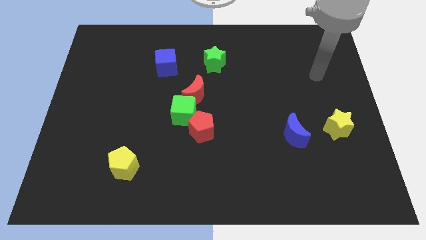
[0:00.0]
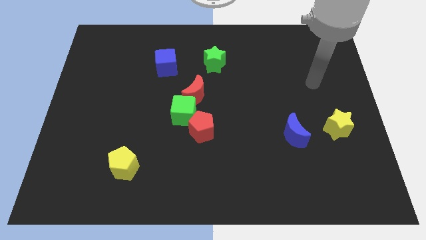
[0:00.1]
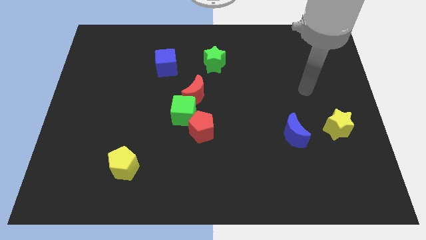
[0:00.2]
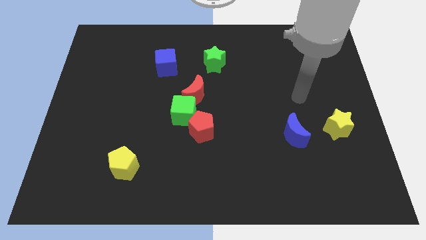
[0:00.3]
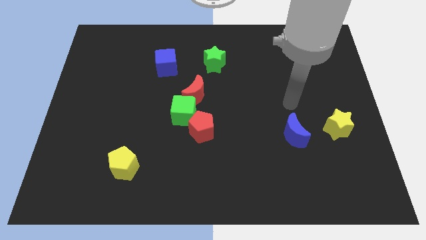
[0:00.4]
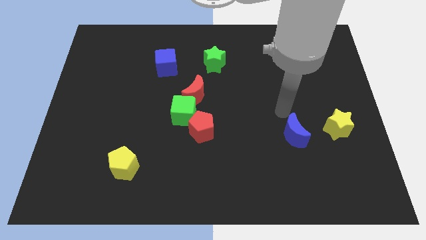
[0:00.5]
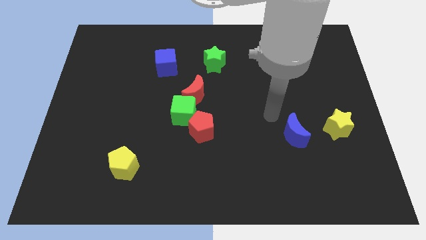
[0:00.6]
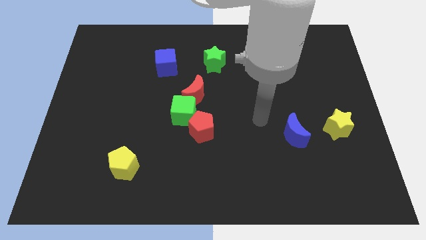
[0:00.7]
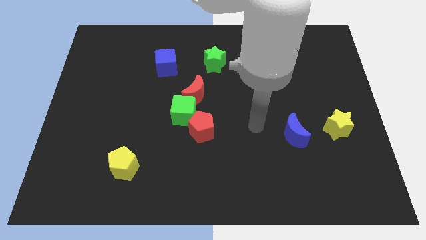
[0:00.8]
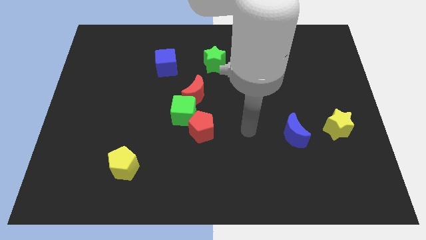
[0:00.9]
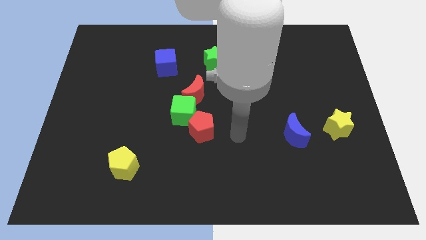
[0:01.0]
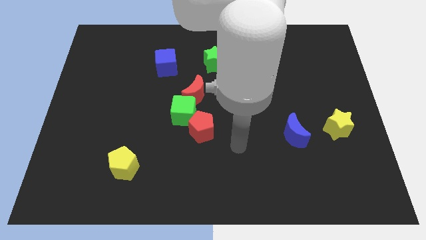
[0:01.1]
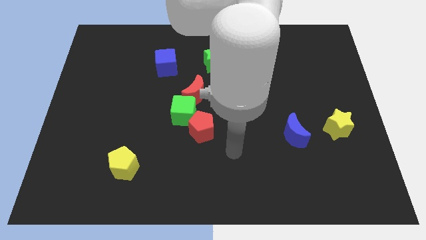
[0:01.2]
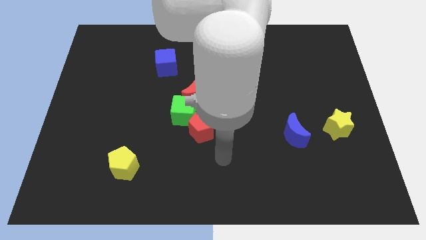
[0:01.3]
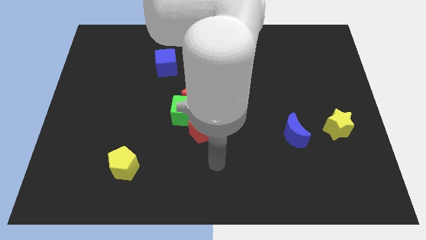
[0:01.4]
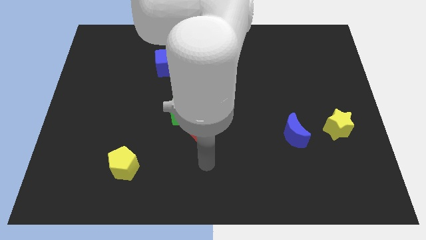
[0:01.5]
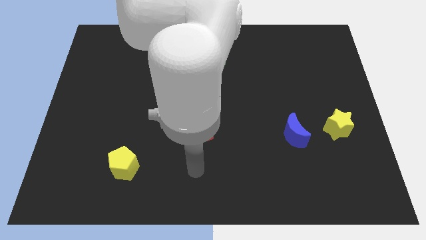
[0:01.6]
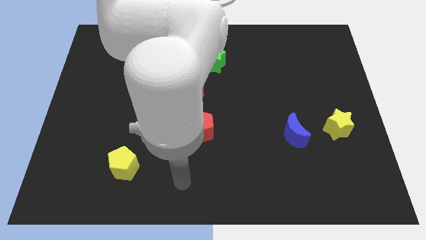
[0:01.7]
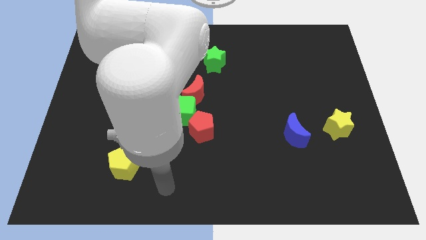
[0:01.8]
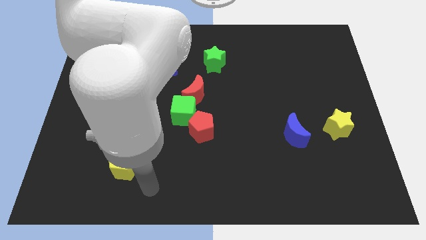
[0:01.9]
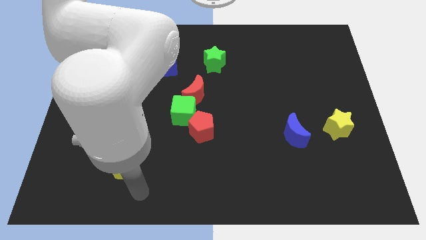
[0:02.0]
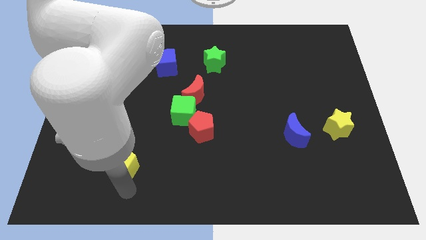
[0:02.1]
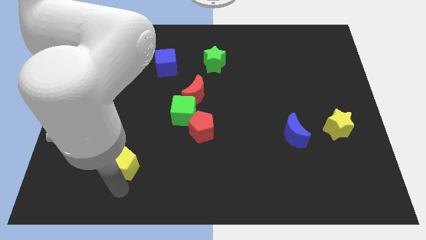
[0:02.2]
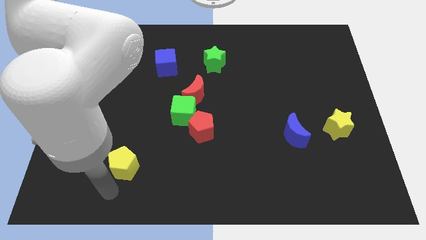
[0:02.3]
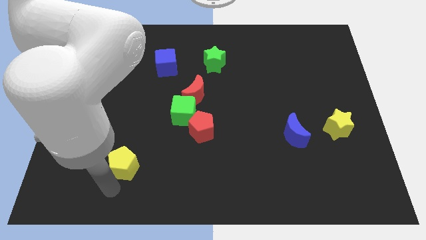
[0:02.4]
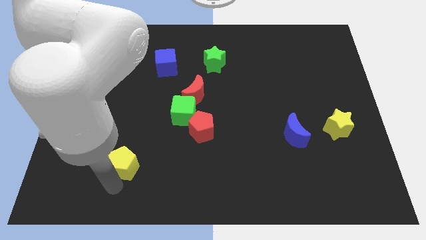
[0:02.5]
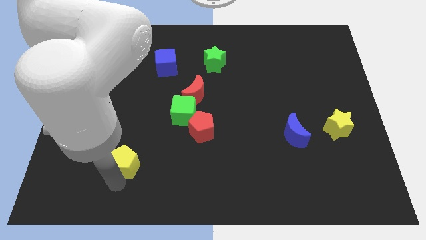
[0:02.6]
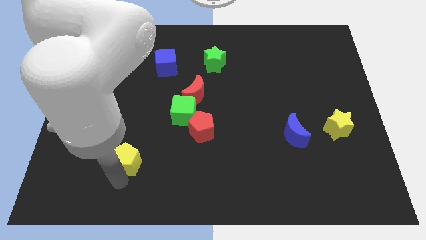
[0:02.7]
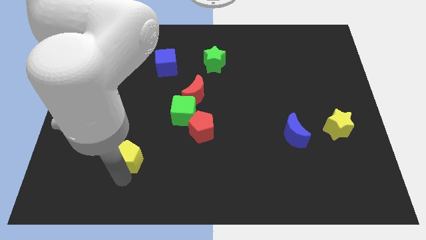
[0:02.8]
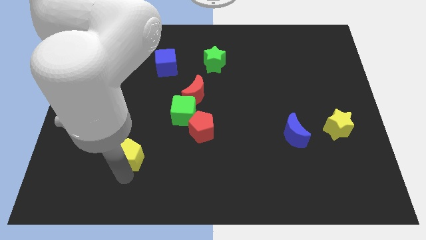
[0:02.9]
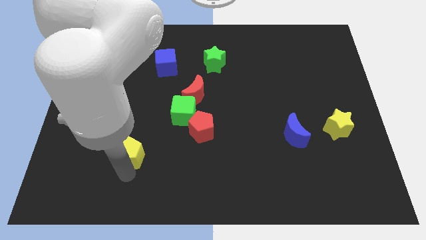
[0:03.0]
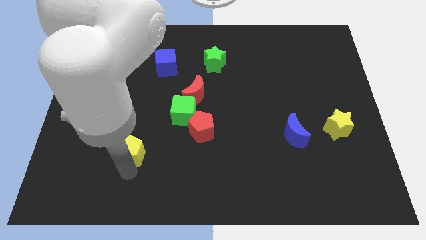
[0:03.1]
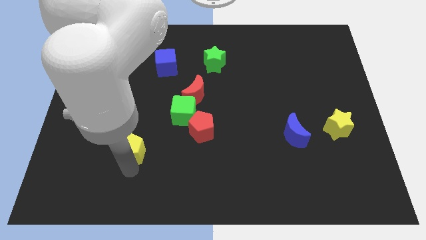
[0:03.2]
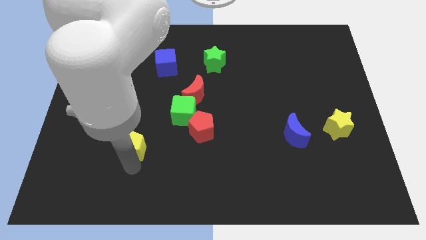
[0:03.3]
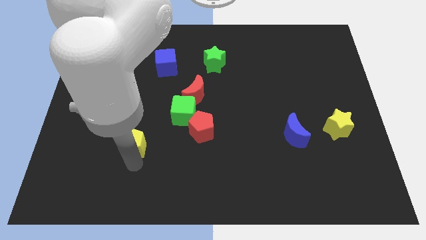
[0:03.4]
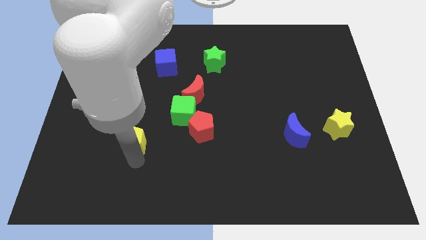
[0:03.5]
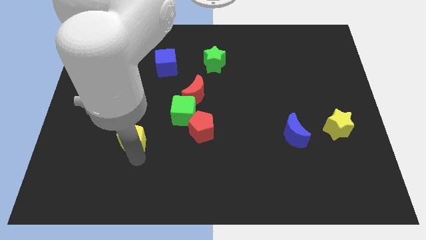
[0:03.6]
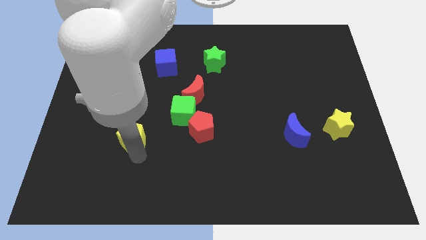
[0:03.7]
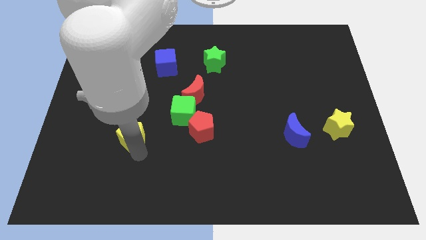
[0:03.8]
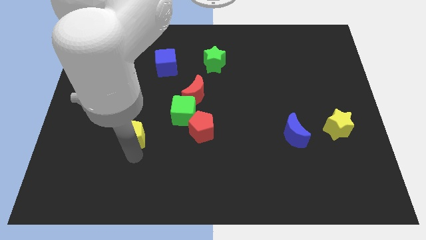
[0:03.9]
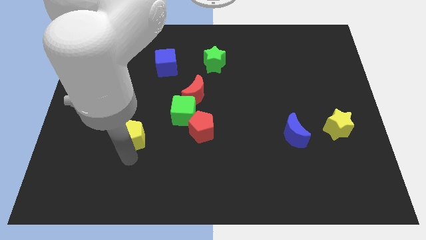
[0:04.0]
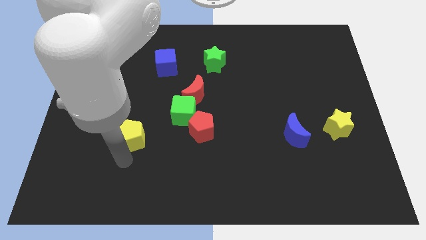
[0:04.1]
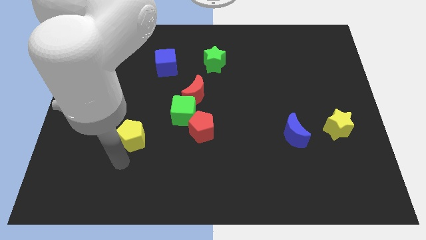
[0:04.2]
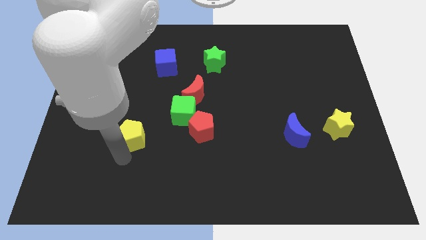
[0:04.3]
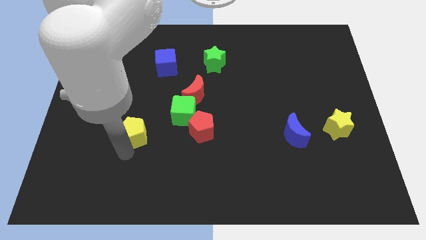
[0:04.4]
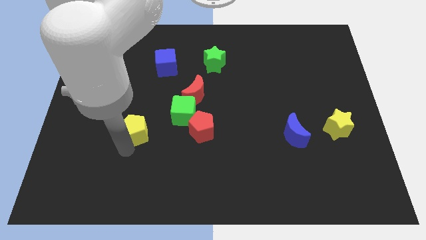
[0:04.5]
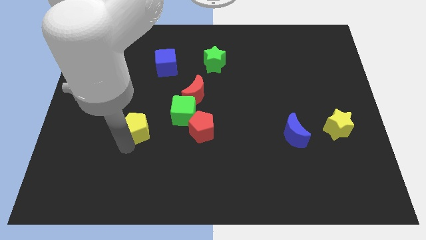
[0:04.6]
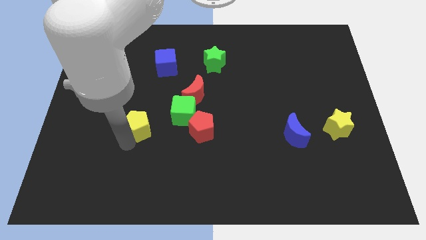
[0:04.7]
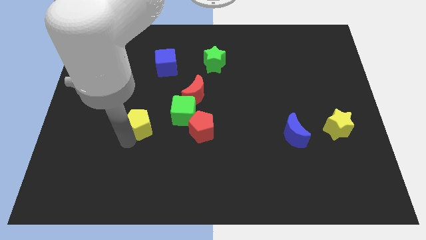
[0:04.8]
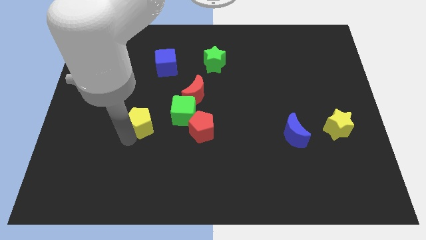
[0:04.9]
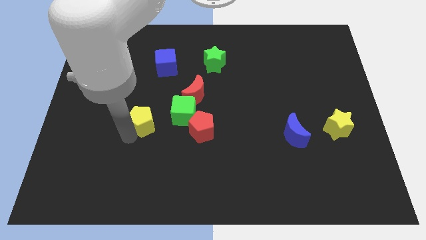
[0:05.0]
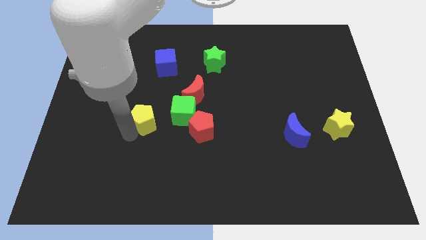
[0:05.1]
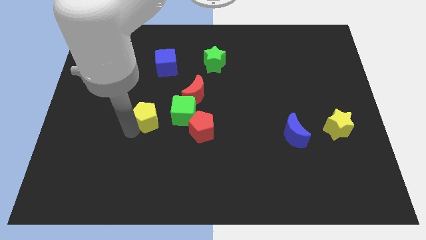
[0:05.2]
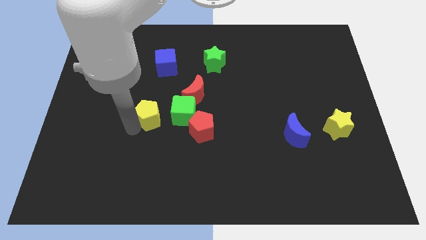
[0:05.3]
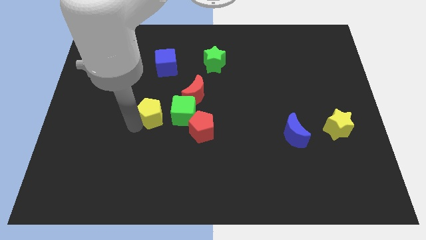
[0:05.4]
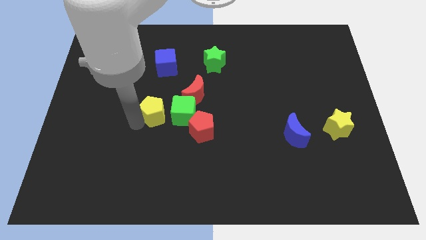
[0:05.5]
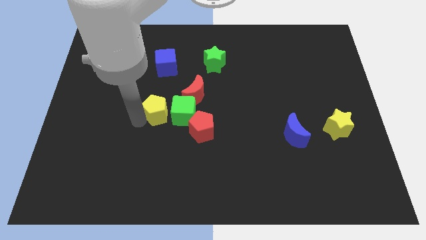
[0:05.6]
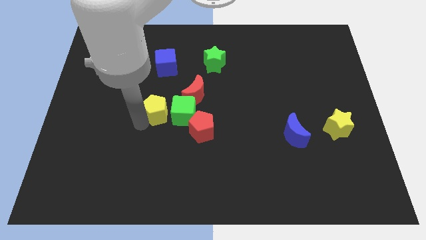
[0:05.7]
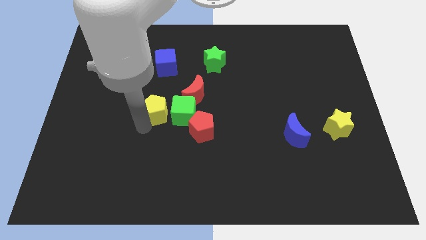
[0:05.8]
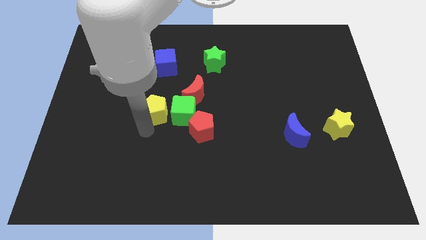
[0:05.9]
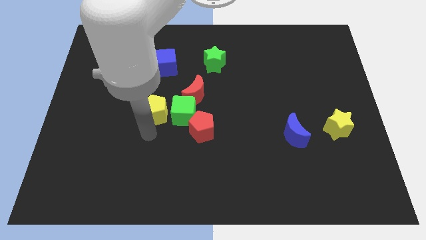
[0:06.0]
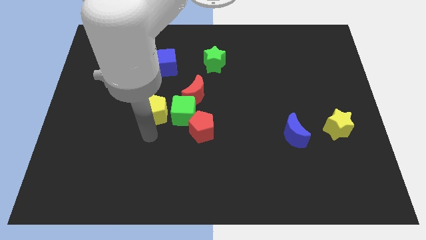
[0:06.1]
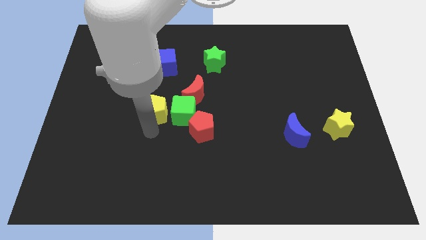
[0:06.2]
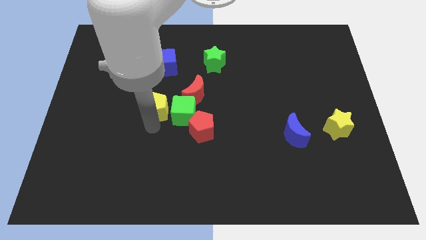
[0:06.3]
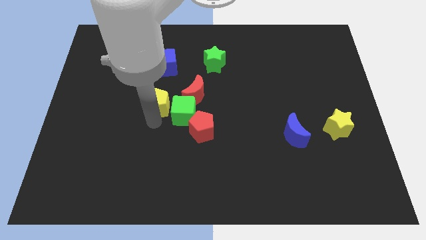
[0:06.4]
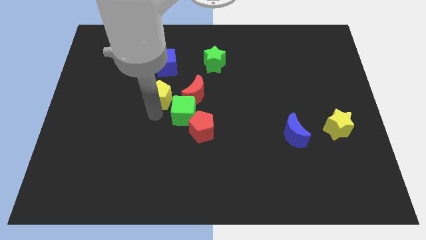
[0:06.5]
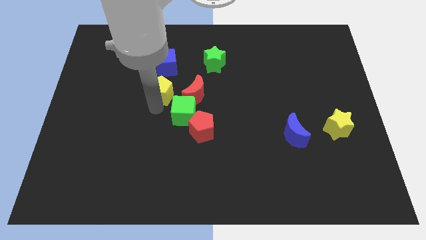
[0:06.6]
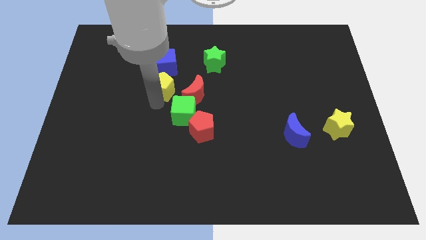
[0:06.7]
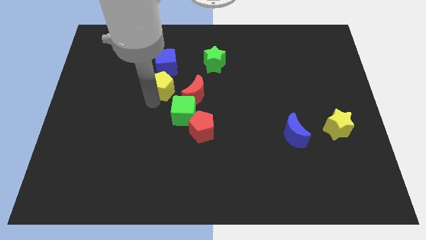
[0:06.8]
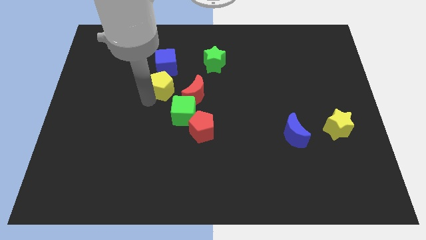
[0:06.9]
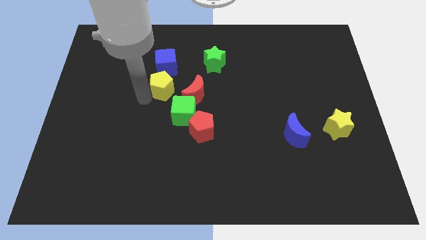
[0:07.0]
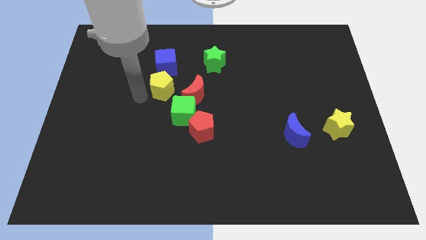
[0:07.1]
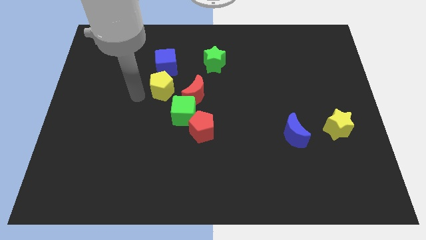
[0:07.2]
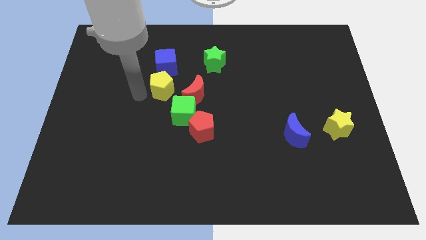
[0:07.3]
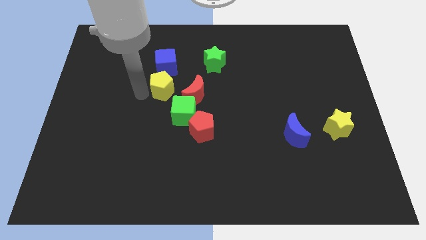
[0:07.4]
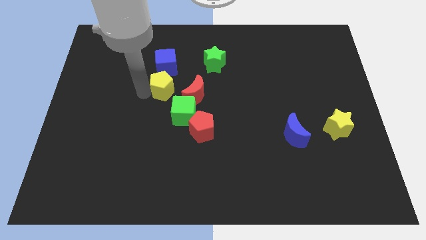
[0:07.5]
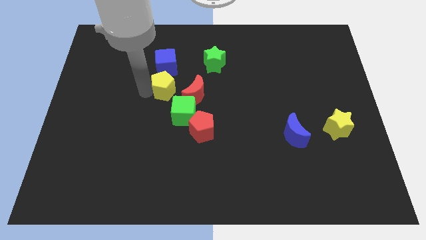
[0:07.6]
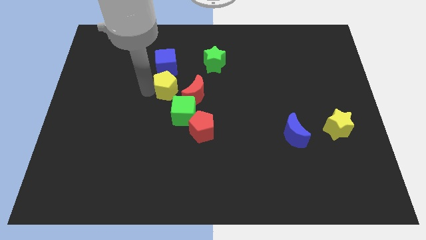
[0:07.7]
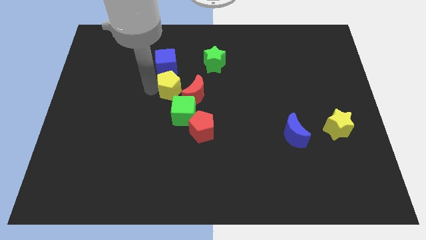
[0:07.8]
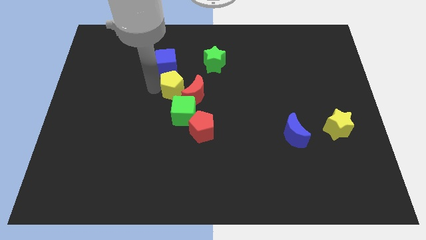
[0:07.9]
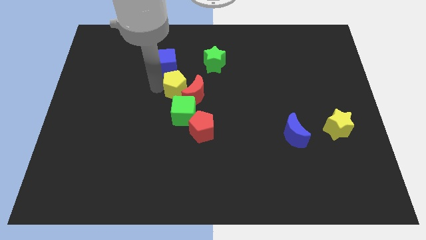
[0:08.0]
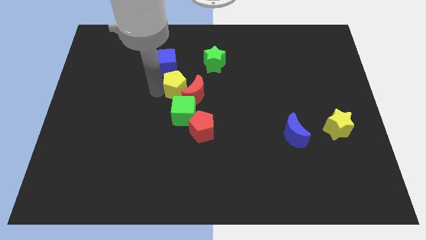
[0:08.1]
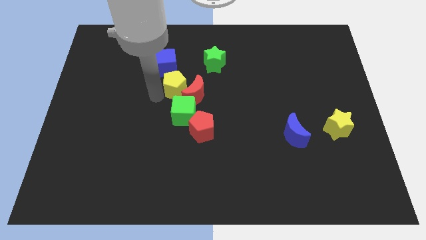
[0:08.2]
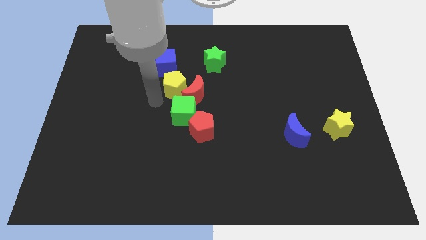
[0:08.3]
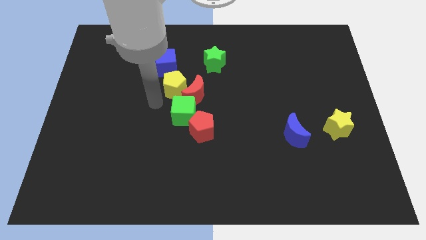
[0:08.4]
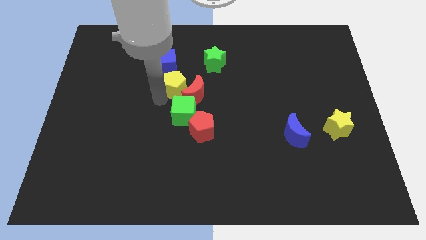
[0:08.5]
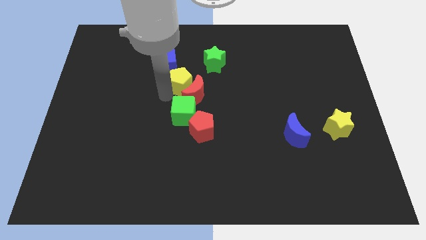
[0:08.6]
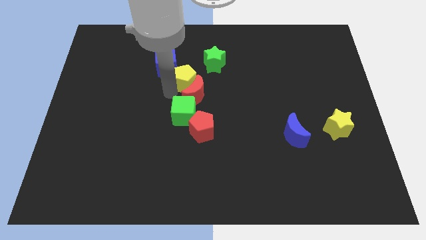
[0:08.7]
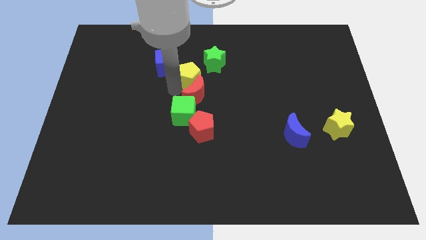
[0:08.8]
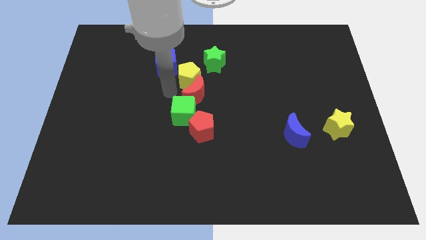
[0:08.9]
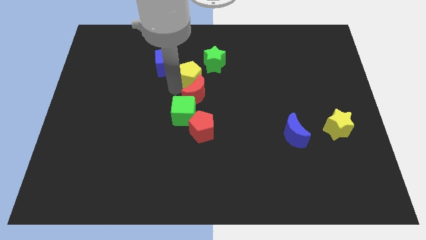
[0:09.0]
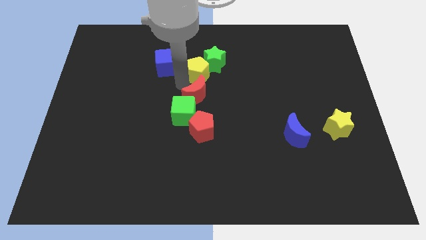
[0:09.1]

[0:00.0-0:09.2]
slide the yellow pentagon towards the green star
